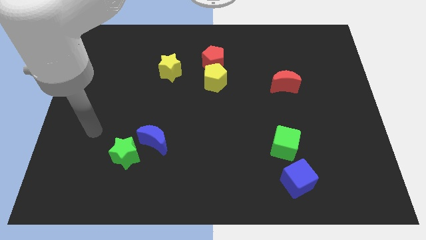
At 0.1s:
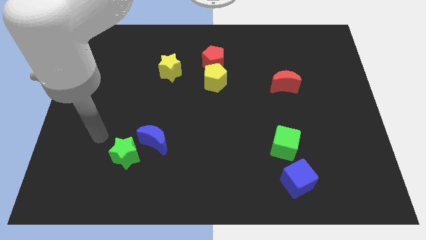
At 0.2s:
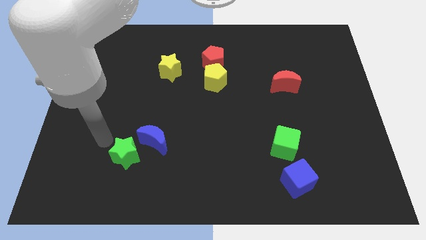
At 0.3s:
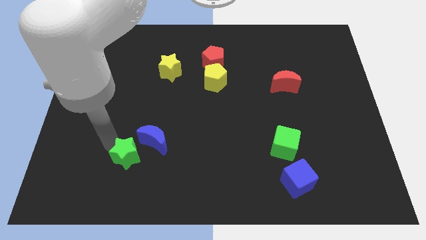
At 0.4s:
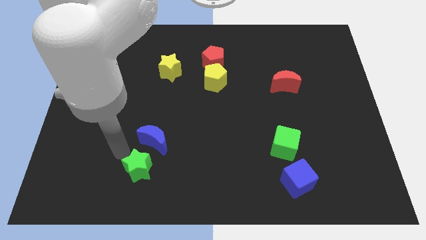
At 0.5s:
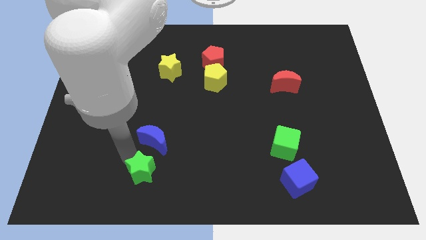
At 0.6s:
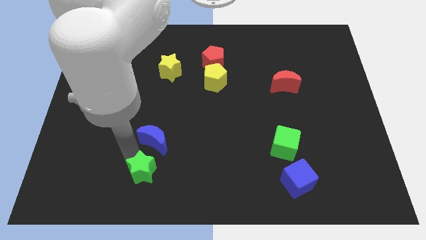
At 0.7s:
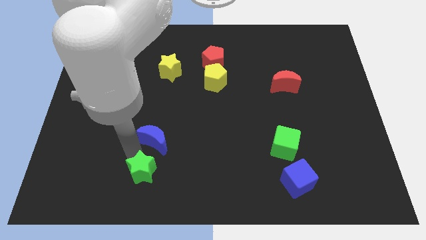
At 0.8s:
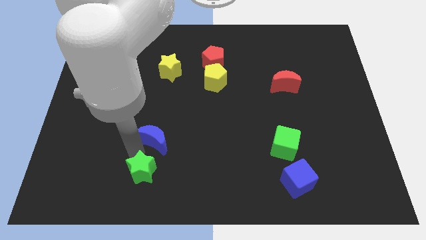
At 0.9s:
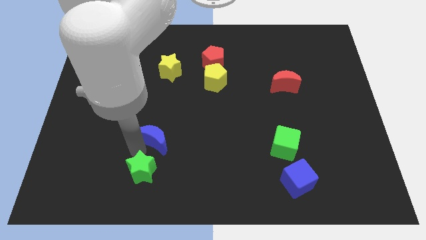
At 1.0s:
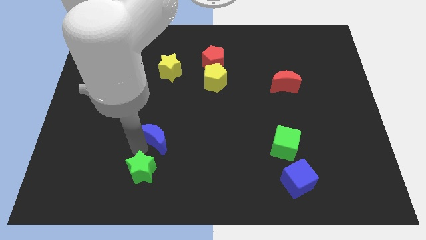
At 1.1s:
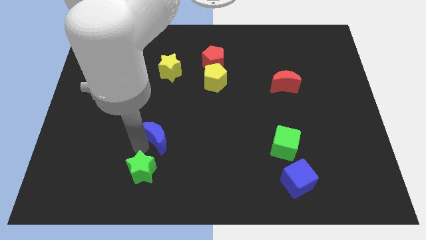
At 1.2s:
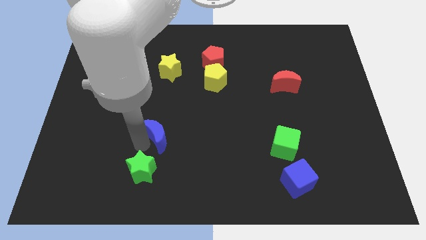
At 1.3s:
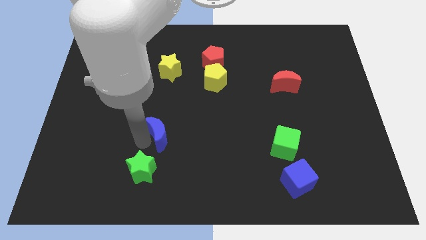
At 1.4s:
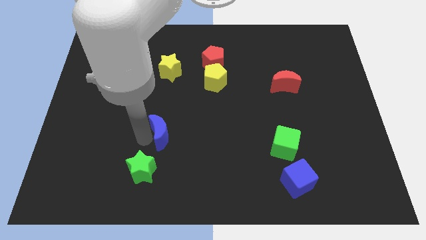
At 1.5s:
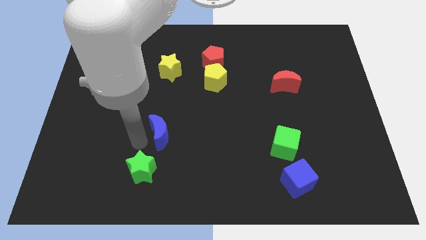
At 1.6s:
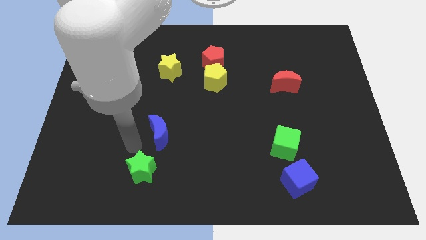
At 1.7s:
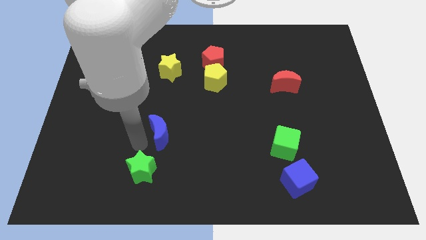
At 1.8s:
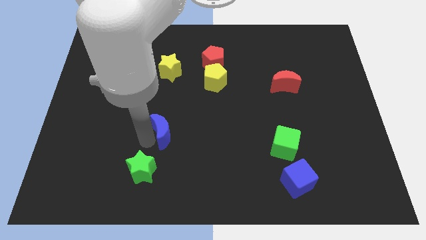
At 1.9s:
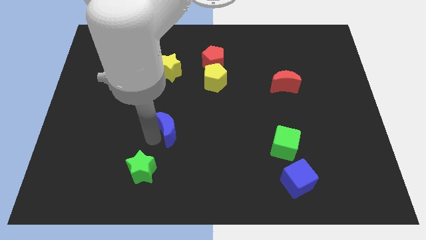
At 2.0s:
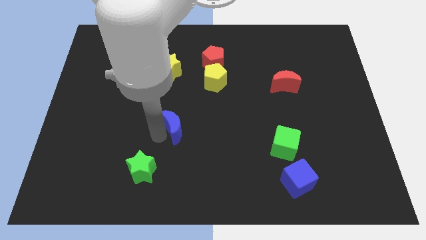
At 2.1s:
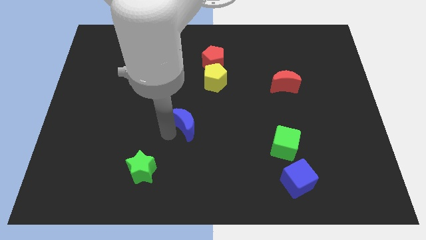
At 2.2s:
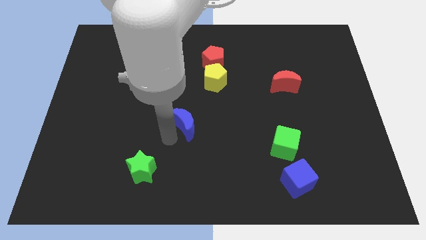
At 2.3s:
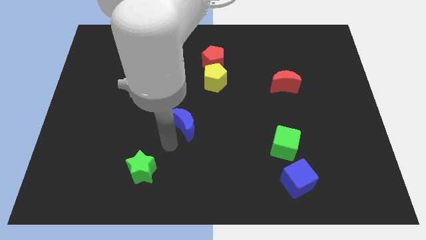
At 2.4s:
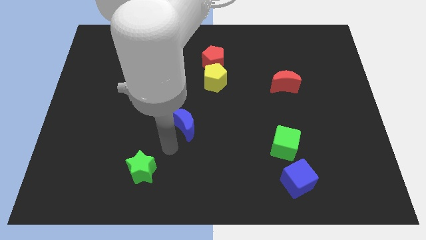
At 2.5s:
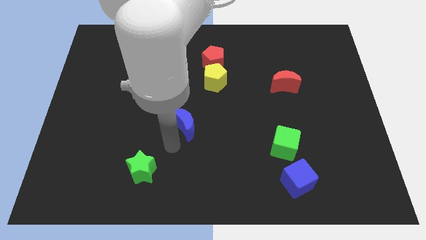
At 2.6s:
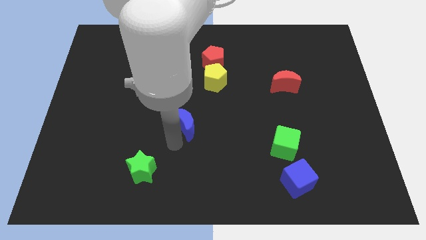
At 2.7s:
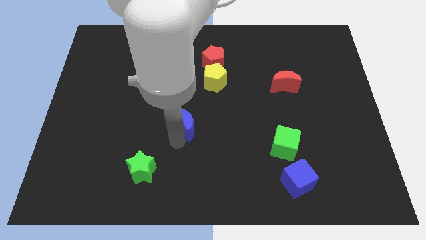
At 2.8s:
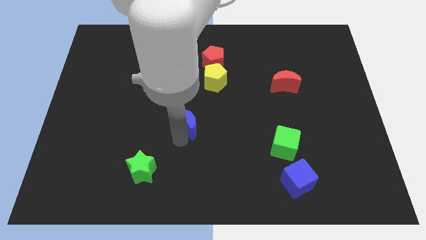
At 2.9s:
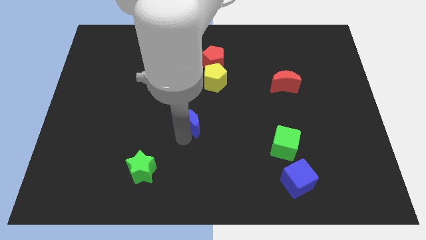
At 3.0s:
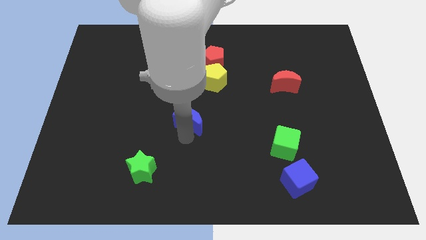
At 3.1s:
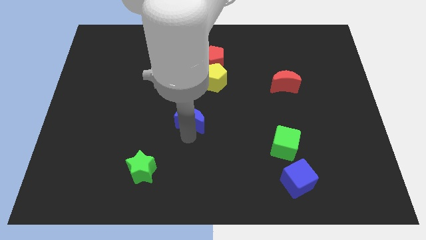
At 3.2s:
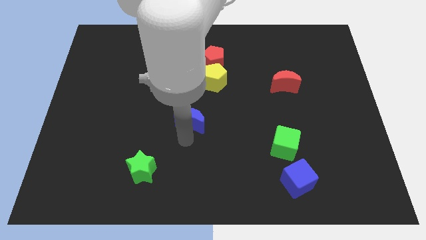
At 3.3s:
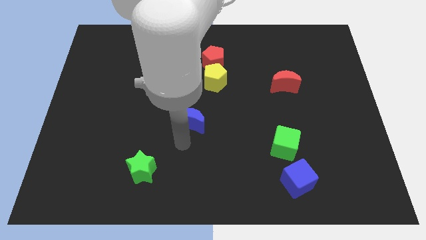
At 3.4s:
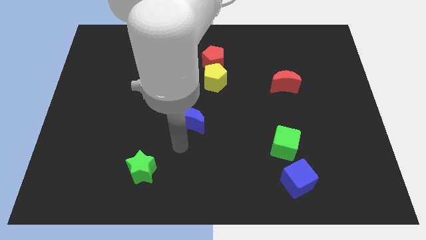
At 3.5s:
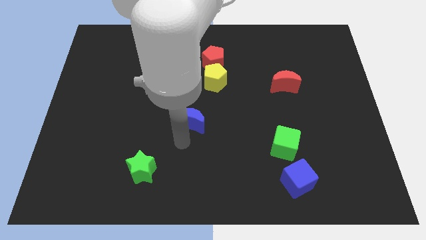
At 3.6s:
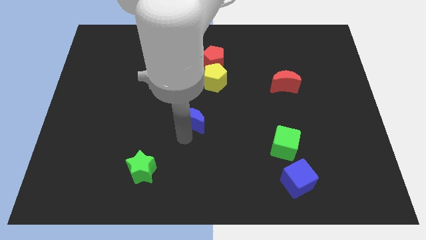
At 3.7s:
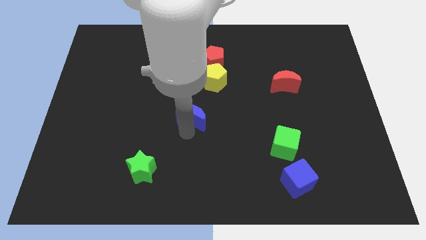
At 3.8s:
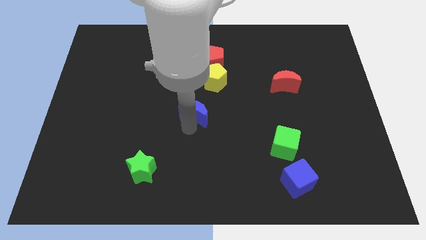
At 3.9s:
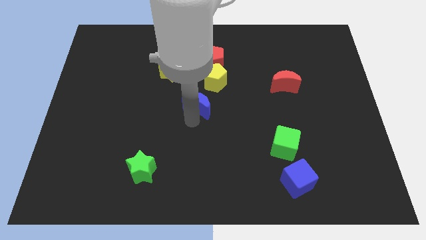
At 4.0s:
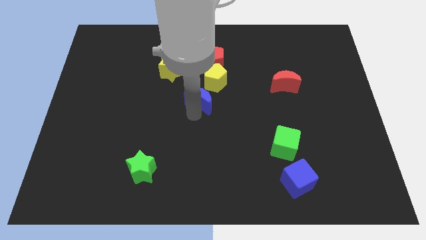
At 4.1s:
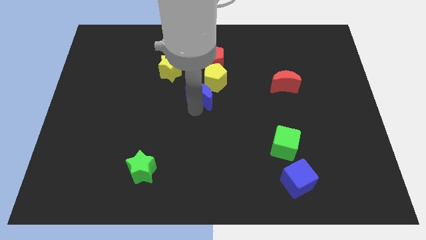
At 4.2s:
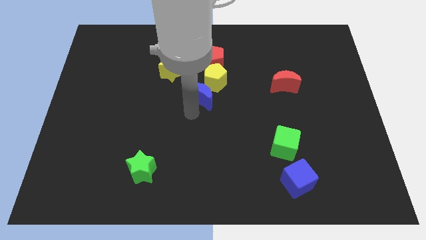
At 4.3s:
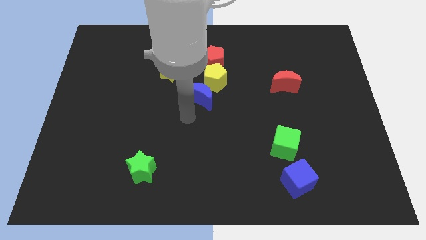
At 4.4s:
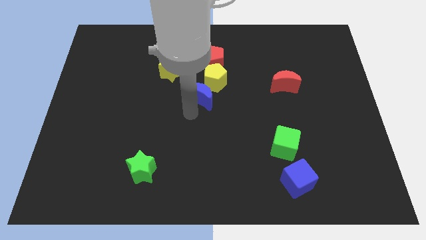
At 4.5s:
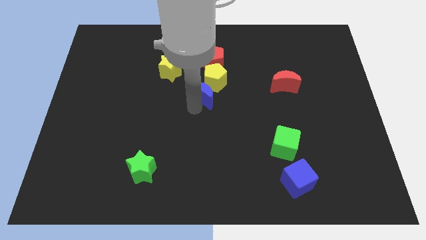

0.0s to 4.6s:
move the blue moon next to the yellow pentagon

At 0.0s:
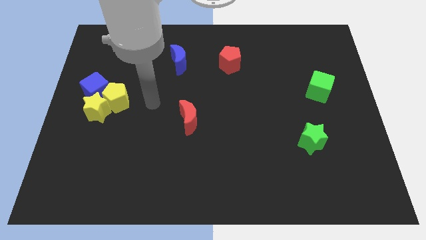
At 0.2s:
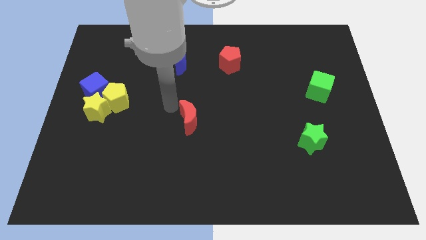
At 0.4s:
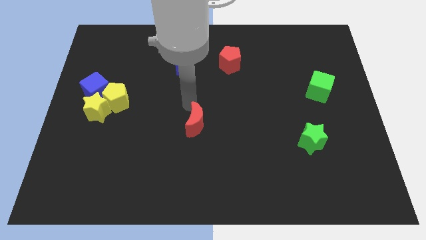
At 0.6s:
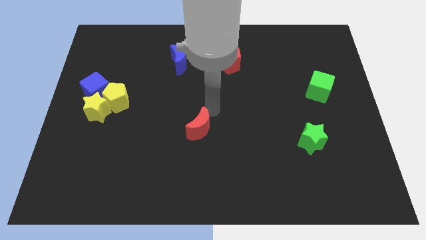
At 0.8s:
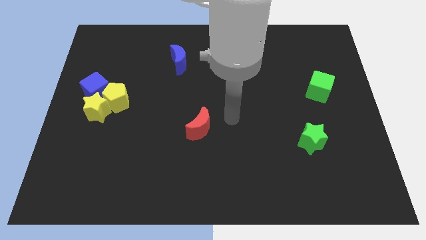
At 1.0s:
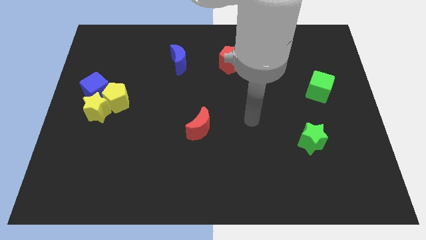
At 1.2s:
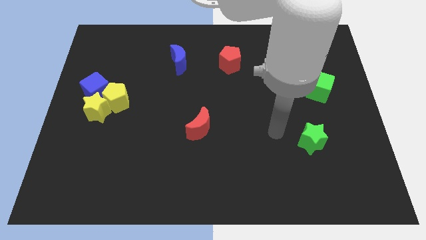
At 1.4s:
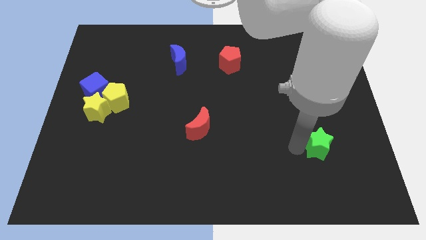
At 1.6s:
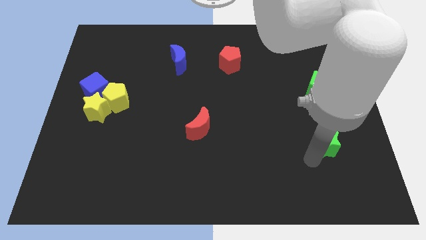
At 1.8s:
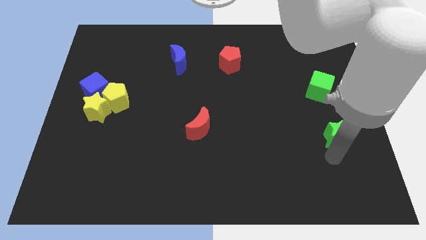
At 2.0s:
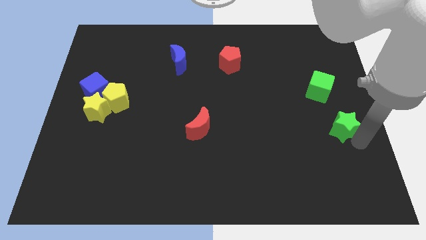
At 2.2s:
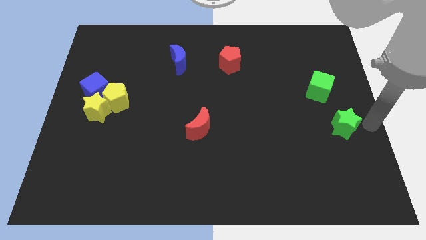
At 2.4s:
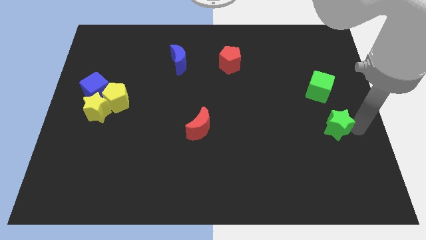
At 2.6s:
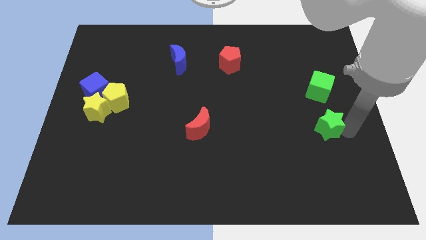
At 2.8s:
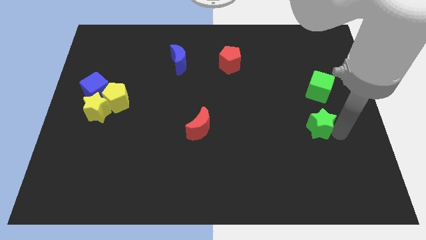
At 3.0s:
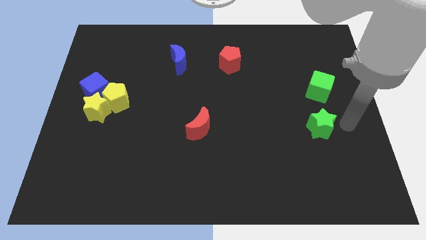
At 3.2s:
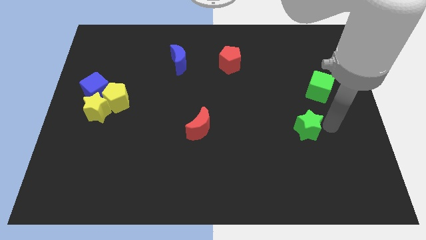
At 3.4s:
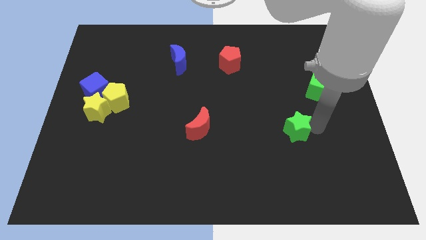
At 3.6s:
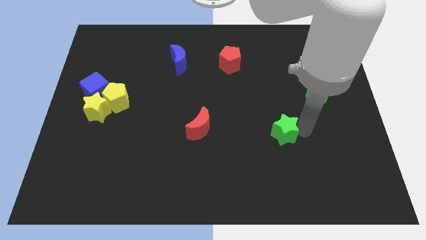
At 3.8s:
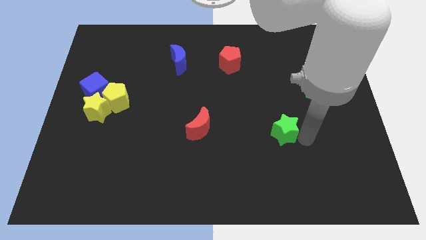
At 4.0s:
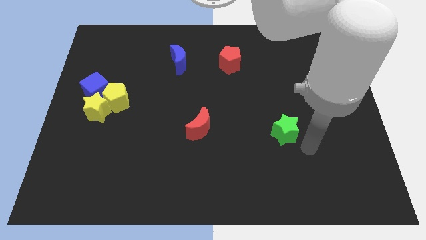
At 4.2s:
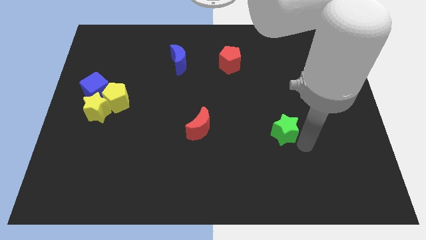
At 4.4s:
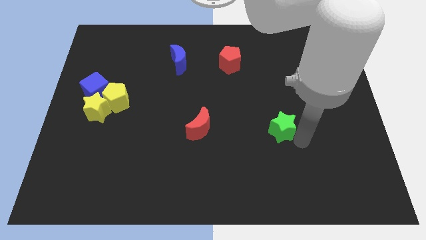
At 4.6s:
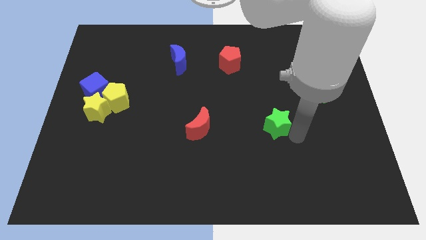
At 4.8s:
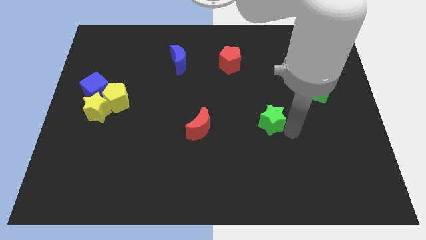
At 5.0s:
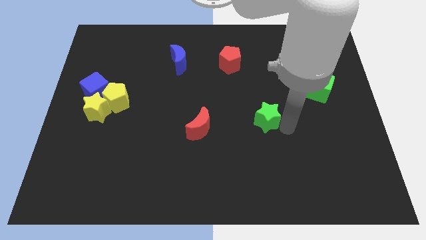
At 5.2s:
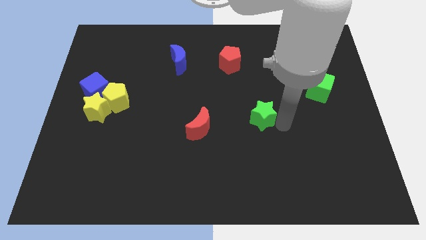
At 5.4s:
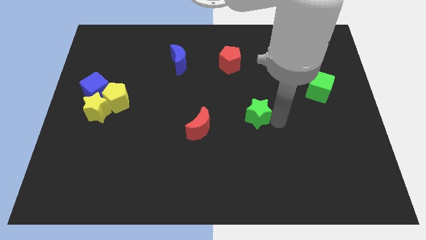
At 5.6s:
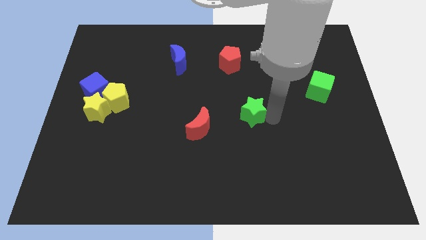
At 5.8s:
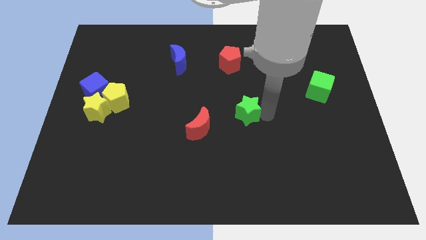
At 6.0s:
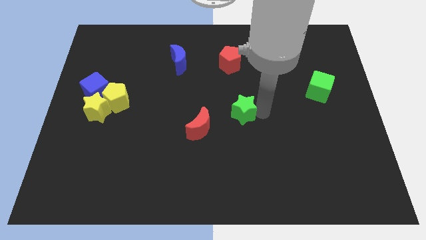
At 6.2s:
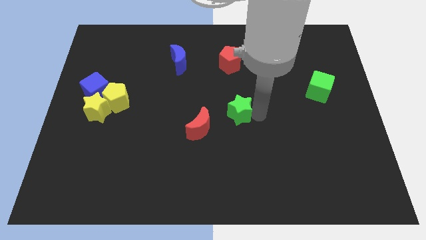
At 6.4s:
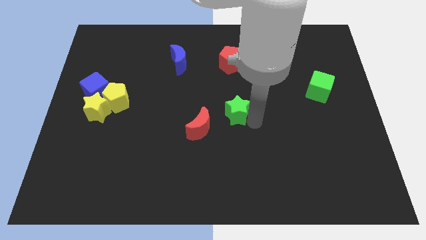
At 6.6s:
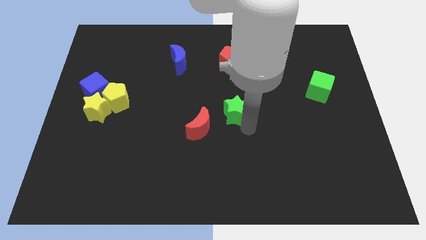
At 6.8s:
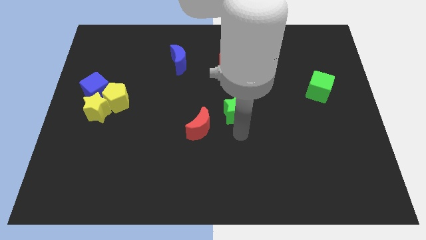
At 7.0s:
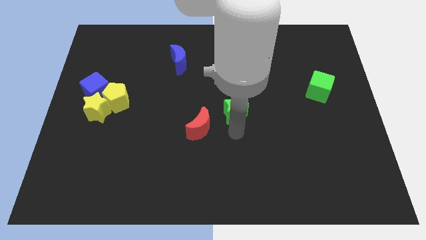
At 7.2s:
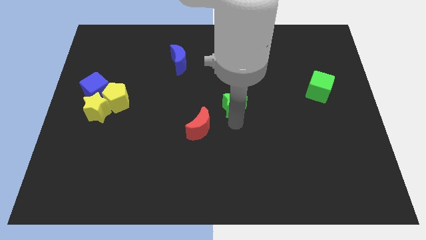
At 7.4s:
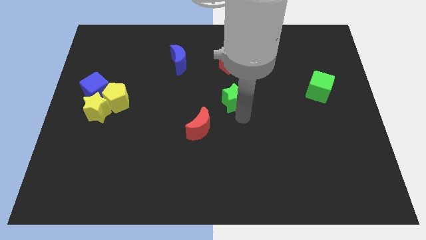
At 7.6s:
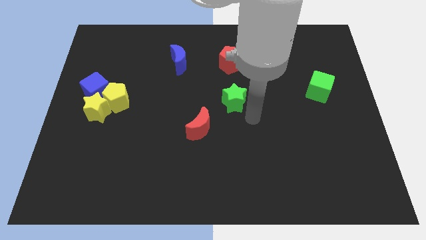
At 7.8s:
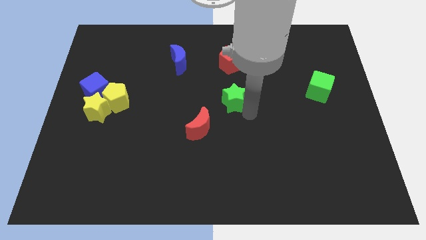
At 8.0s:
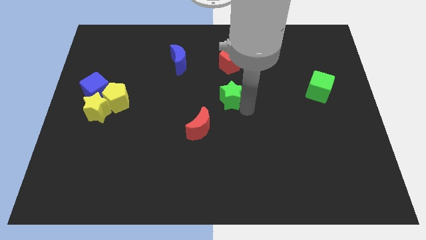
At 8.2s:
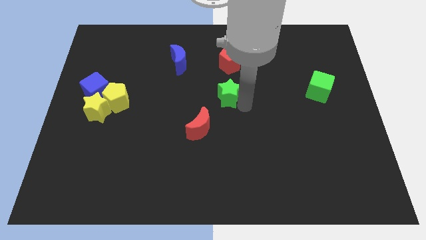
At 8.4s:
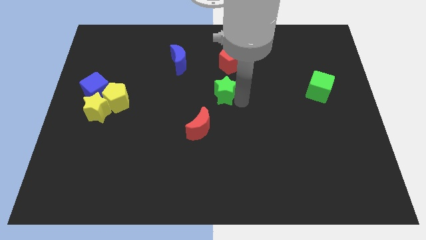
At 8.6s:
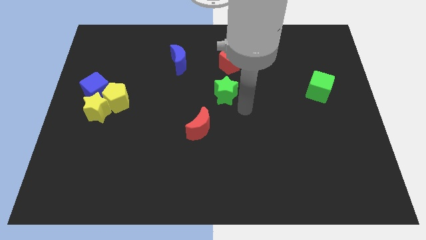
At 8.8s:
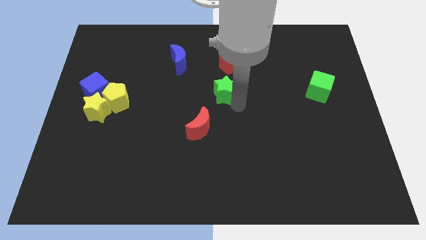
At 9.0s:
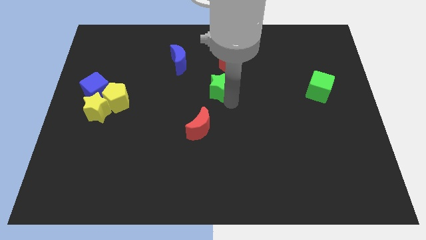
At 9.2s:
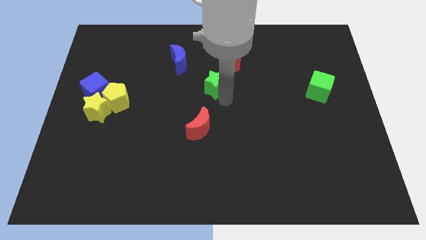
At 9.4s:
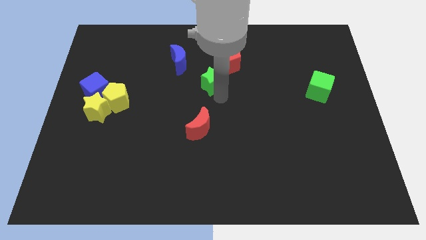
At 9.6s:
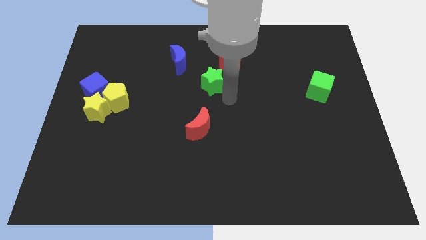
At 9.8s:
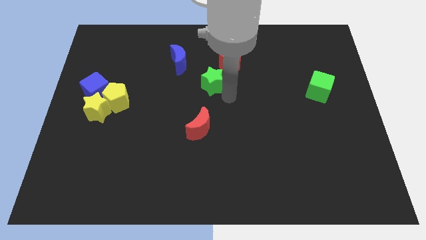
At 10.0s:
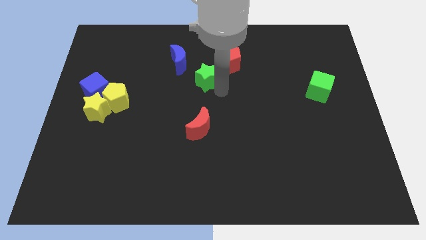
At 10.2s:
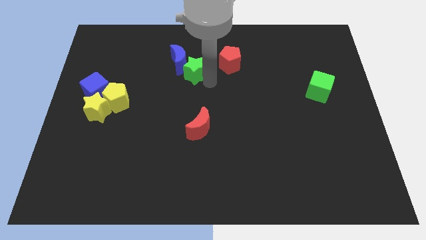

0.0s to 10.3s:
slide the green star to the blue moon
